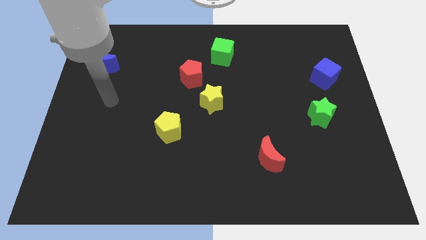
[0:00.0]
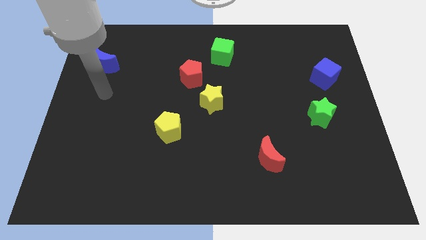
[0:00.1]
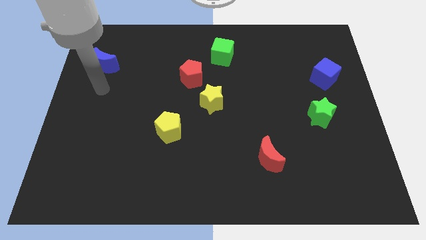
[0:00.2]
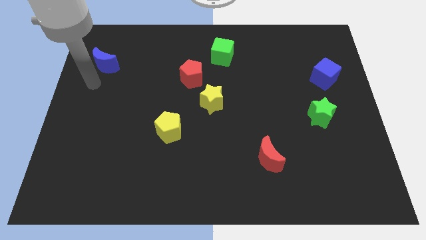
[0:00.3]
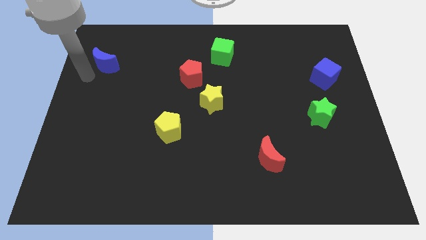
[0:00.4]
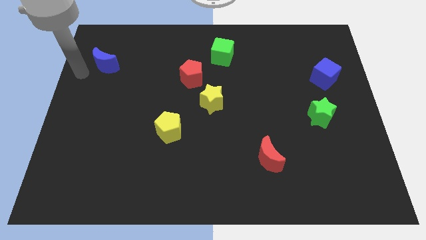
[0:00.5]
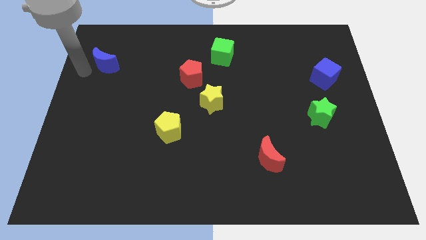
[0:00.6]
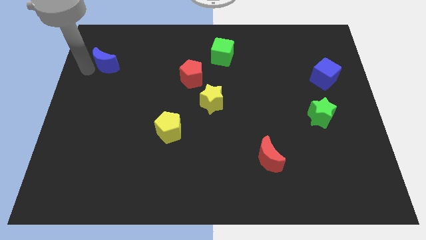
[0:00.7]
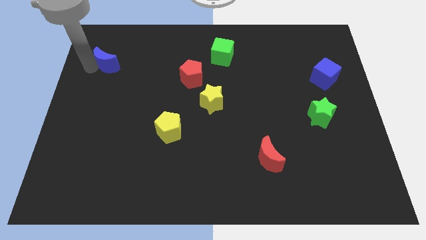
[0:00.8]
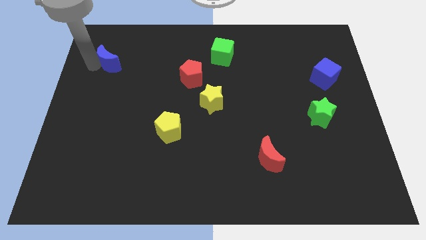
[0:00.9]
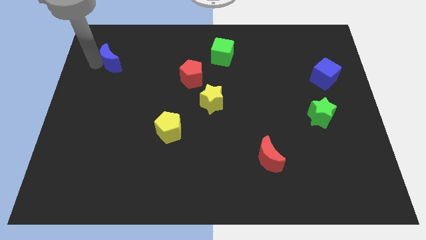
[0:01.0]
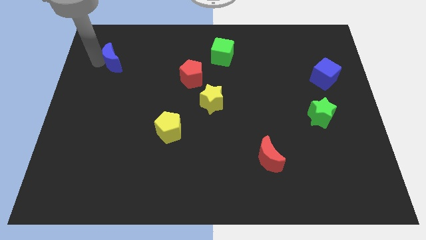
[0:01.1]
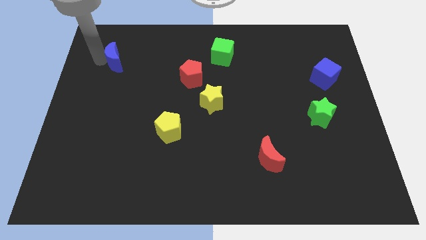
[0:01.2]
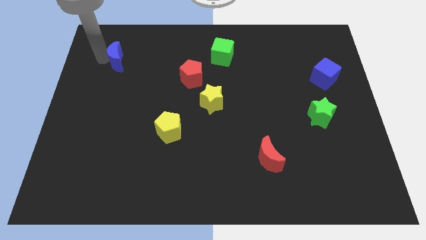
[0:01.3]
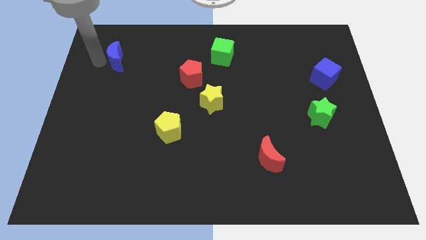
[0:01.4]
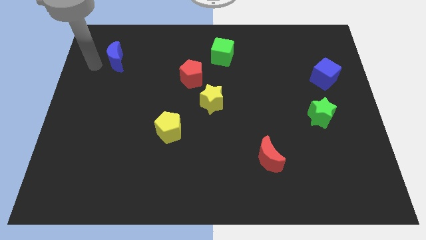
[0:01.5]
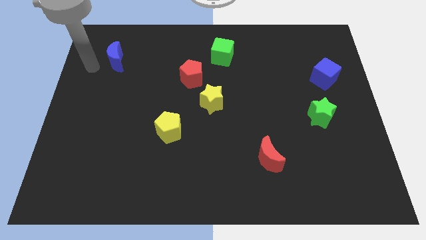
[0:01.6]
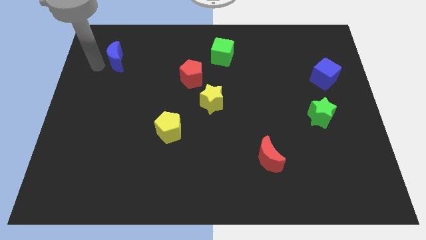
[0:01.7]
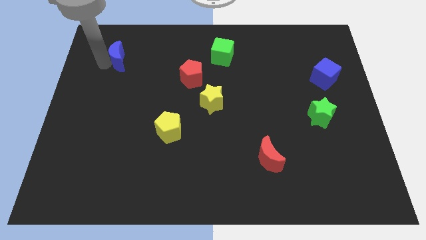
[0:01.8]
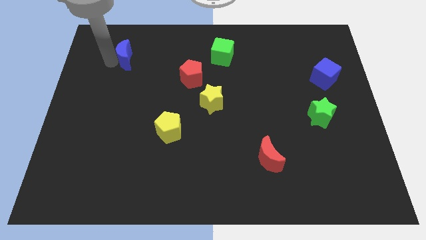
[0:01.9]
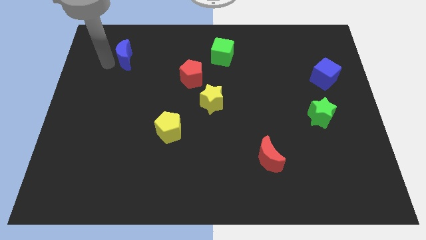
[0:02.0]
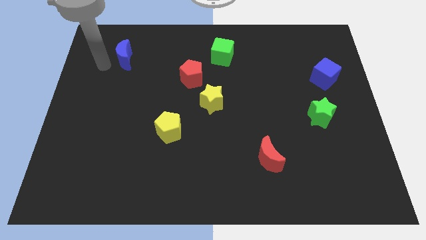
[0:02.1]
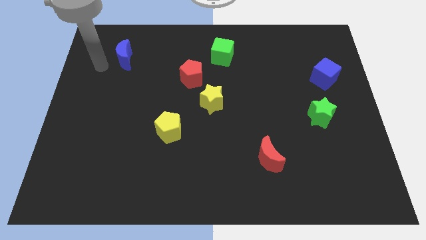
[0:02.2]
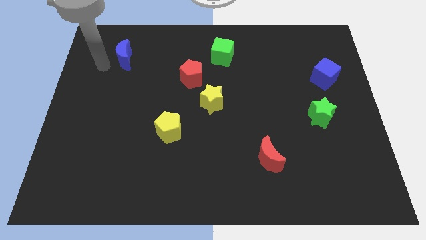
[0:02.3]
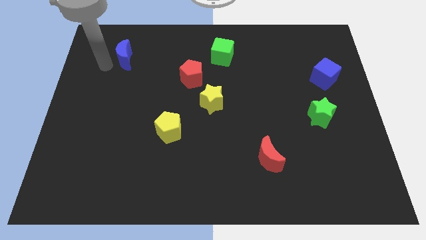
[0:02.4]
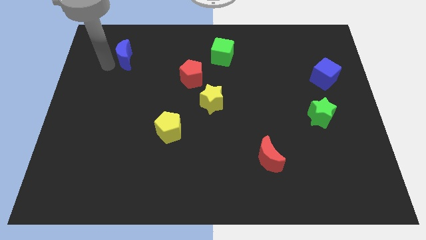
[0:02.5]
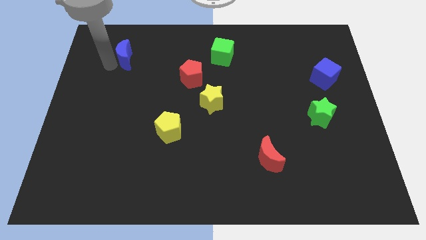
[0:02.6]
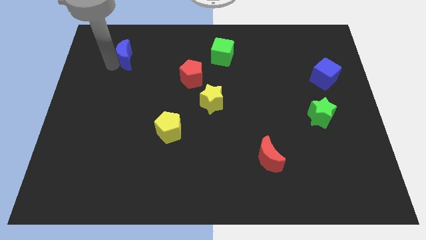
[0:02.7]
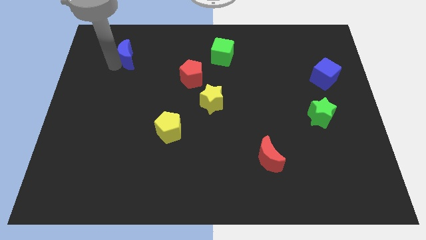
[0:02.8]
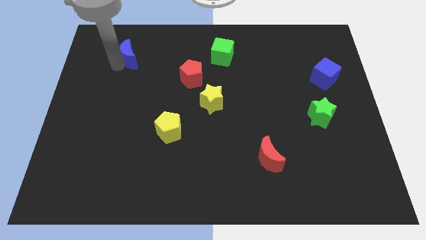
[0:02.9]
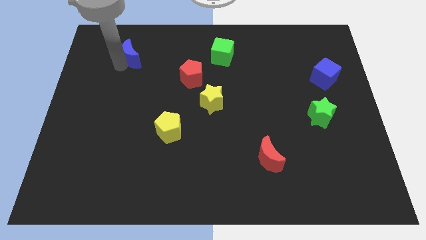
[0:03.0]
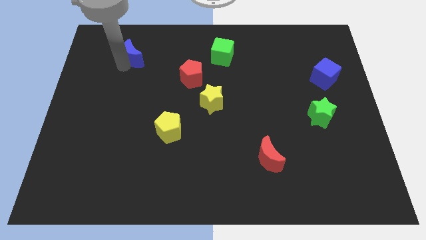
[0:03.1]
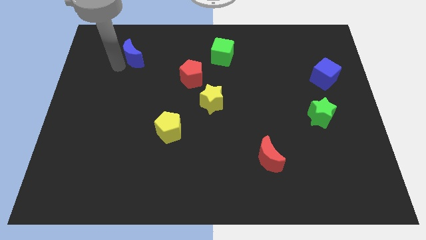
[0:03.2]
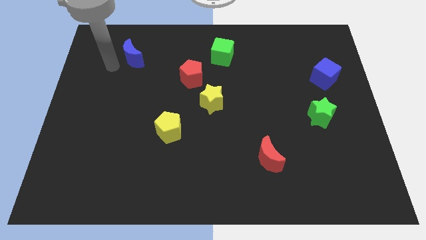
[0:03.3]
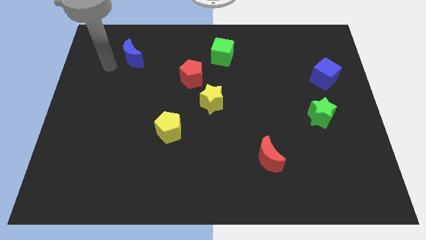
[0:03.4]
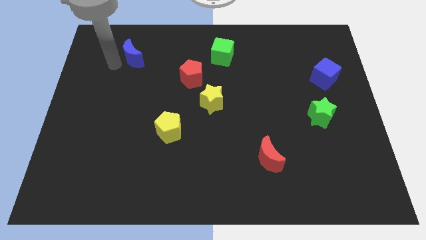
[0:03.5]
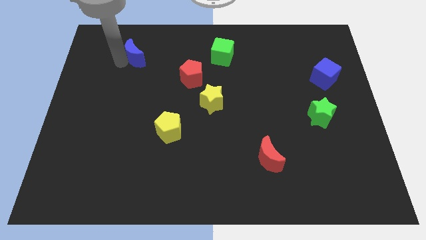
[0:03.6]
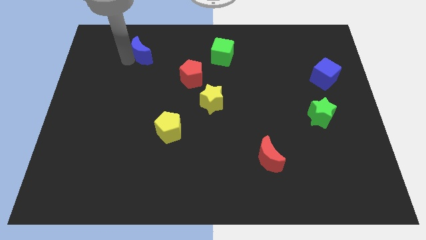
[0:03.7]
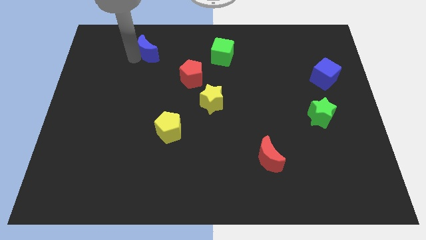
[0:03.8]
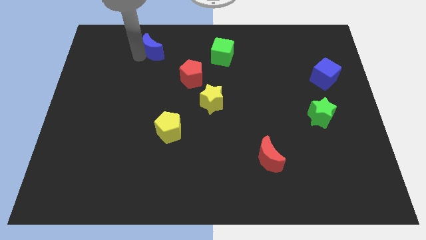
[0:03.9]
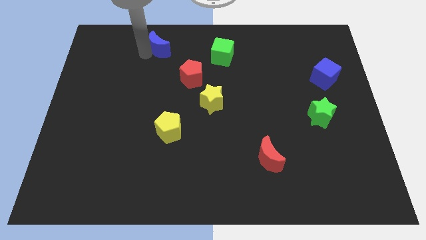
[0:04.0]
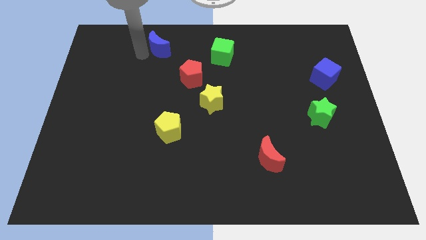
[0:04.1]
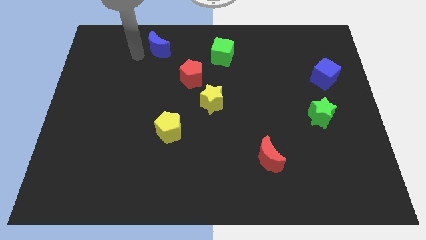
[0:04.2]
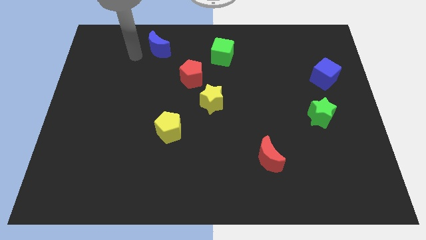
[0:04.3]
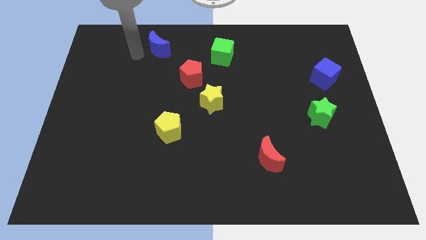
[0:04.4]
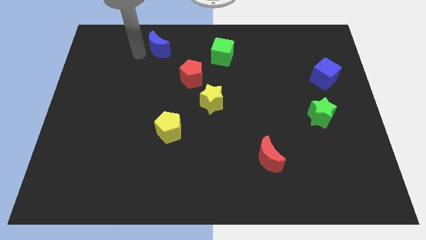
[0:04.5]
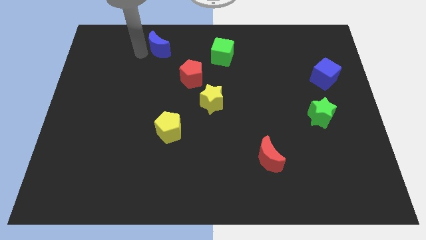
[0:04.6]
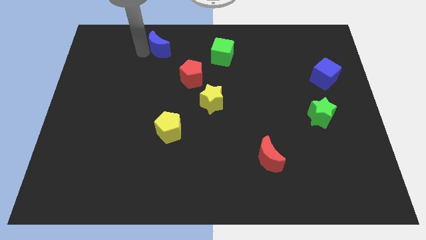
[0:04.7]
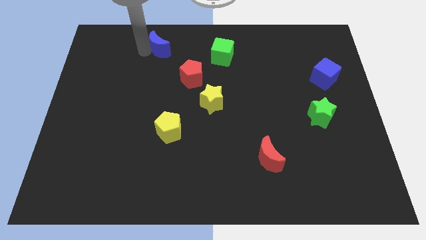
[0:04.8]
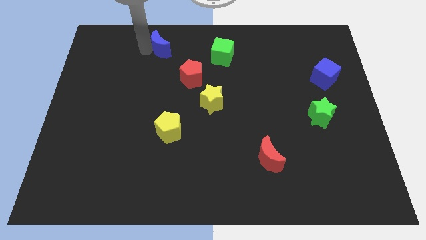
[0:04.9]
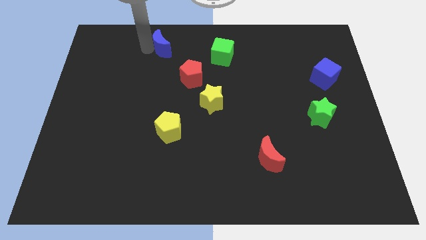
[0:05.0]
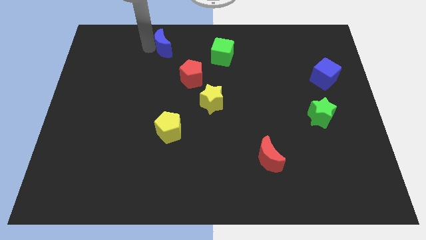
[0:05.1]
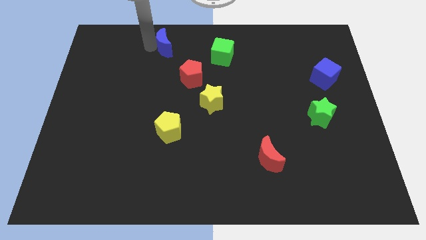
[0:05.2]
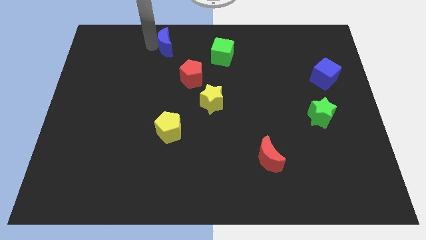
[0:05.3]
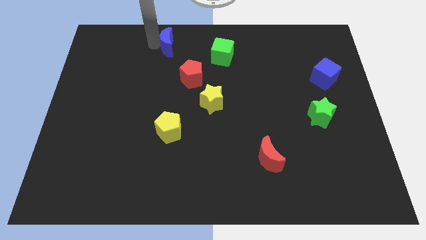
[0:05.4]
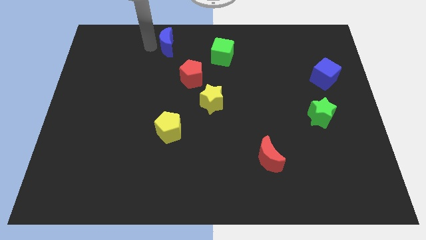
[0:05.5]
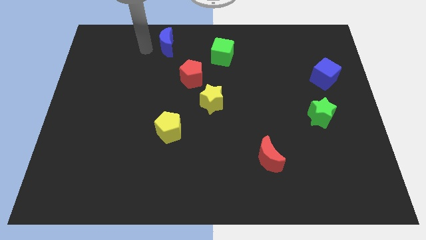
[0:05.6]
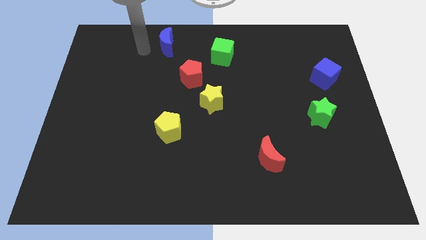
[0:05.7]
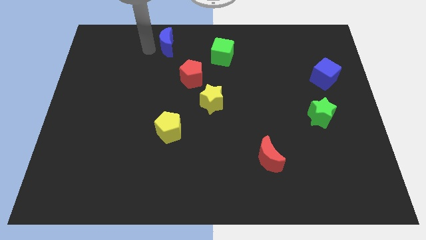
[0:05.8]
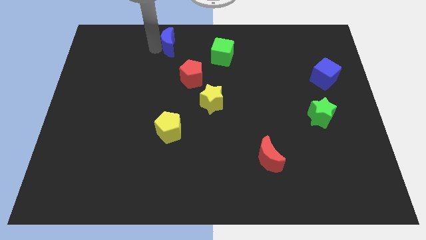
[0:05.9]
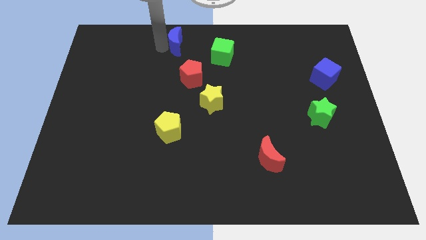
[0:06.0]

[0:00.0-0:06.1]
push the blue moon to the towards your base

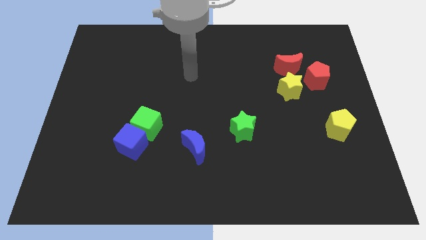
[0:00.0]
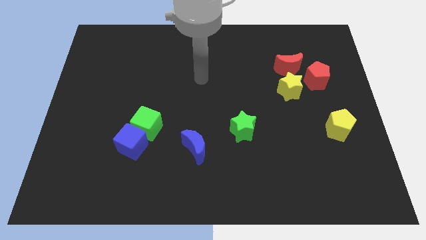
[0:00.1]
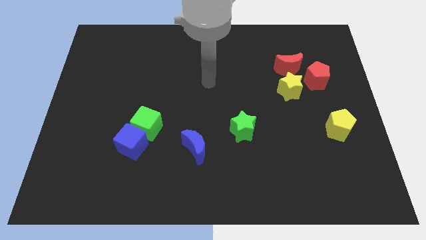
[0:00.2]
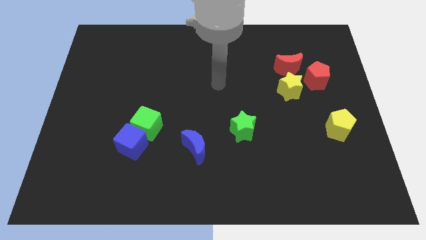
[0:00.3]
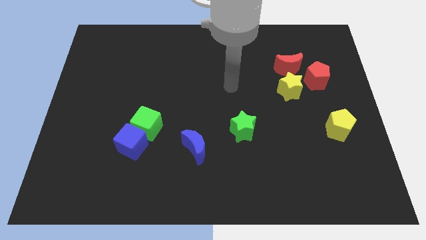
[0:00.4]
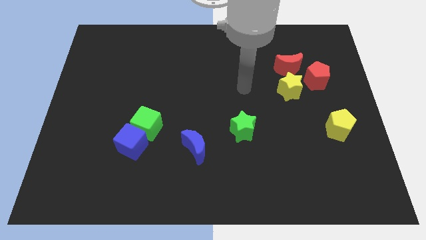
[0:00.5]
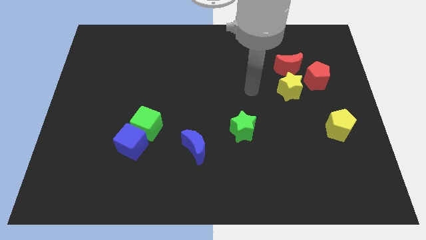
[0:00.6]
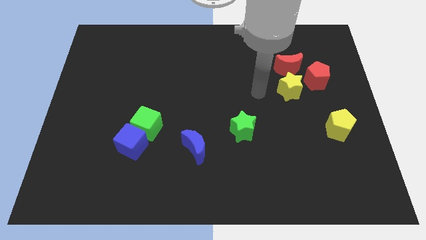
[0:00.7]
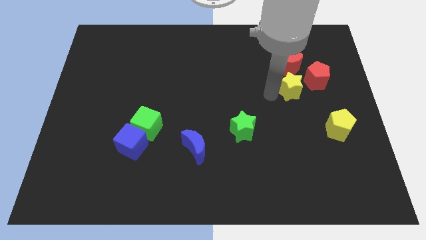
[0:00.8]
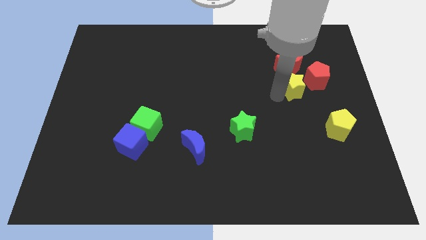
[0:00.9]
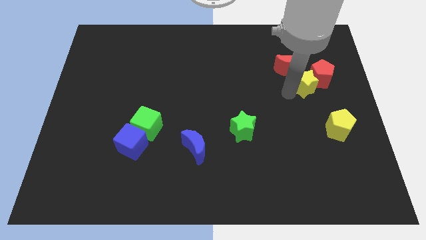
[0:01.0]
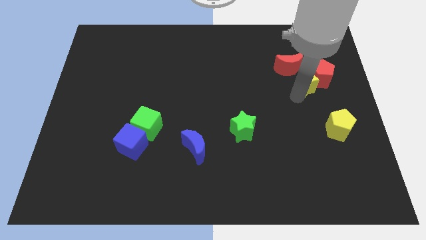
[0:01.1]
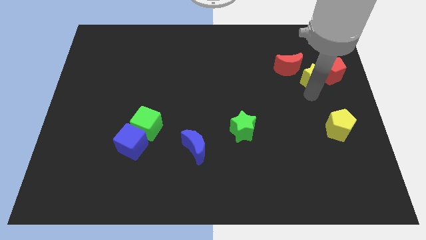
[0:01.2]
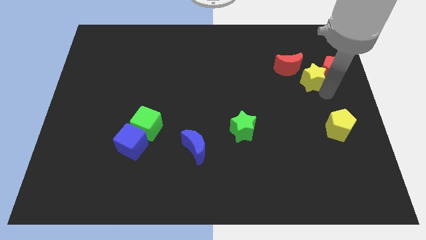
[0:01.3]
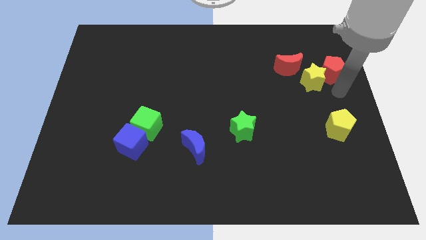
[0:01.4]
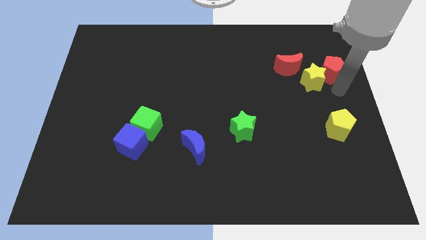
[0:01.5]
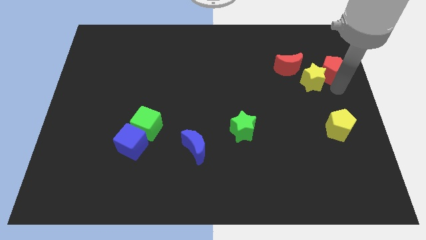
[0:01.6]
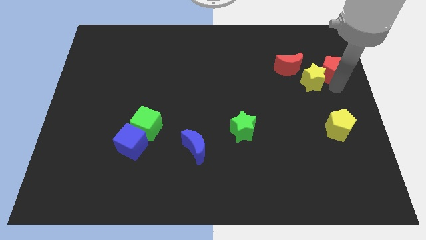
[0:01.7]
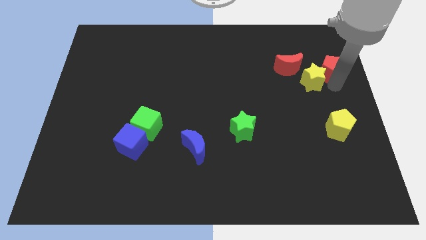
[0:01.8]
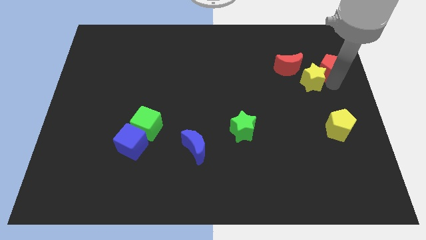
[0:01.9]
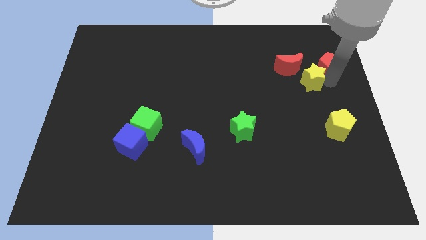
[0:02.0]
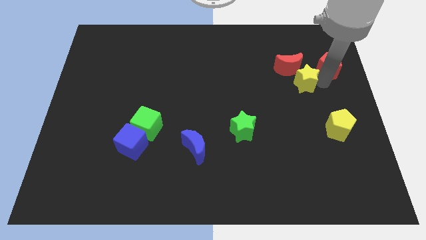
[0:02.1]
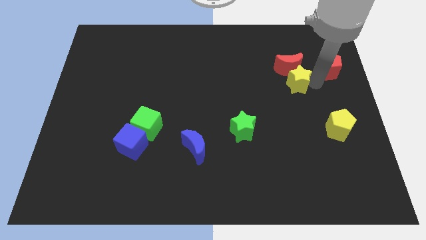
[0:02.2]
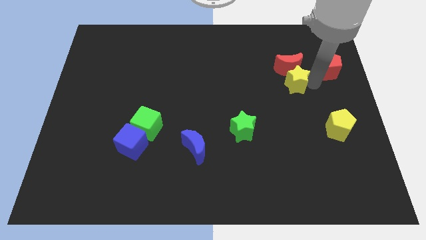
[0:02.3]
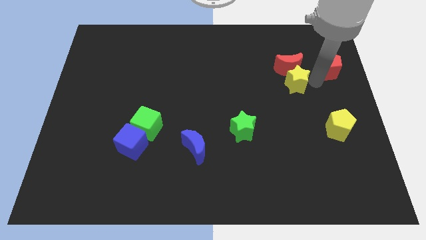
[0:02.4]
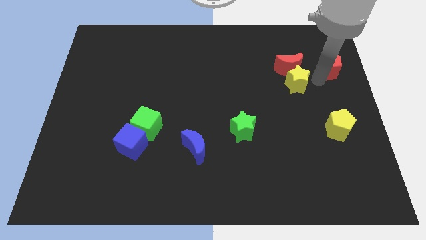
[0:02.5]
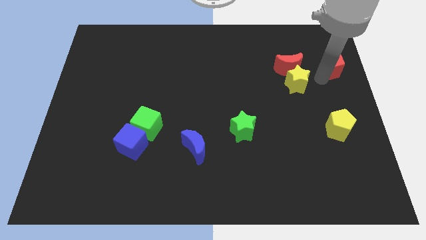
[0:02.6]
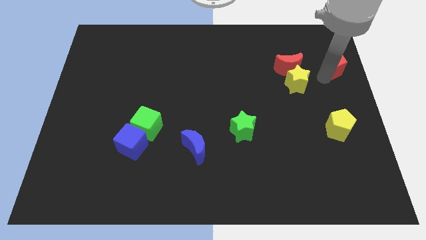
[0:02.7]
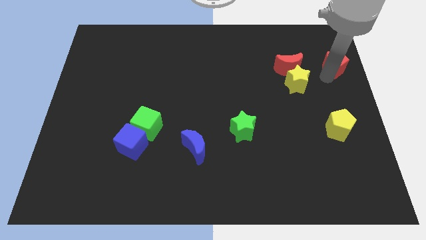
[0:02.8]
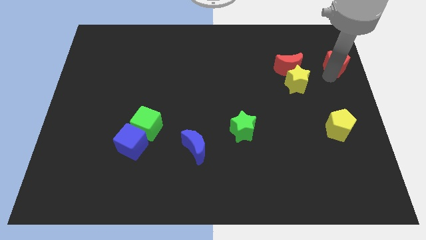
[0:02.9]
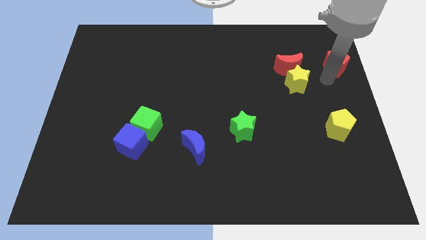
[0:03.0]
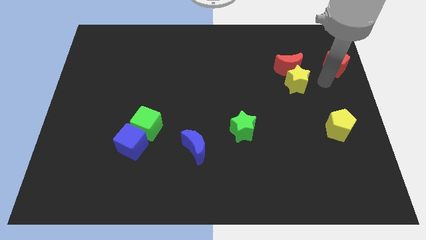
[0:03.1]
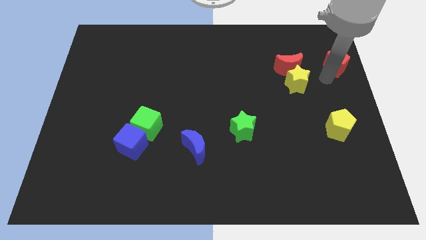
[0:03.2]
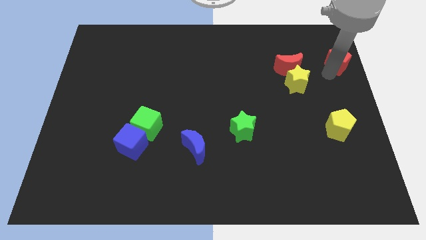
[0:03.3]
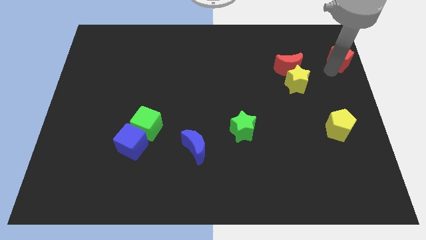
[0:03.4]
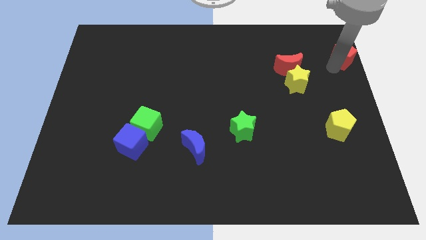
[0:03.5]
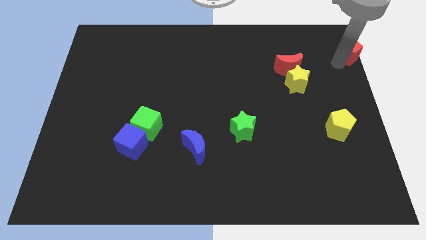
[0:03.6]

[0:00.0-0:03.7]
push the red pentagon to the top right of the board
